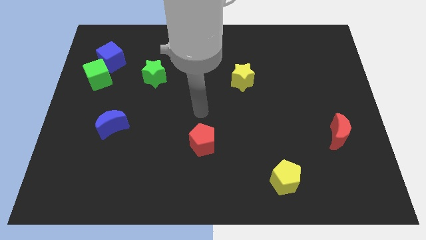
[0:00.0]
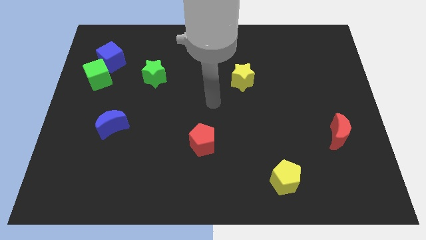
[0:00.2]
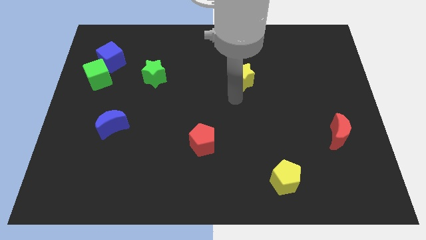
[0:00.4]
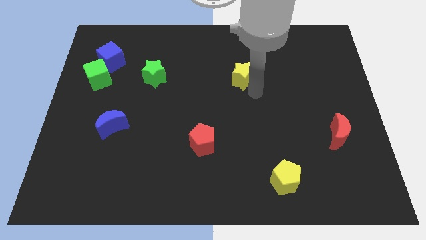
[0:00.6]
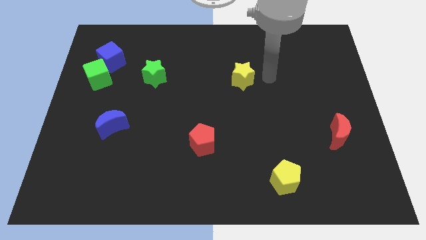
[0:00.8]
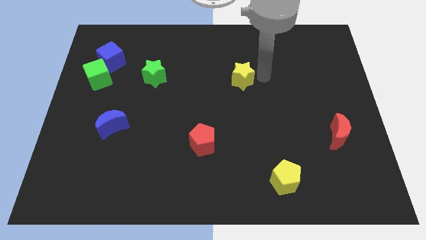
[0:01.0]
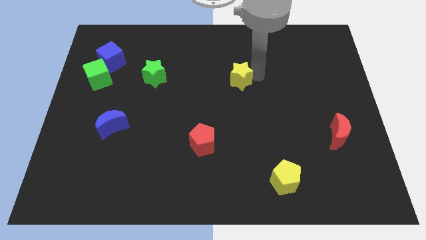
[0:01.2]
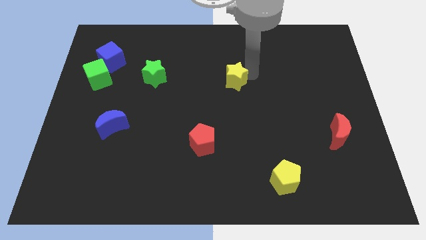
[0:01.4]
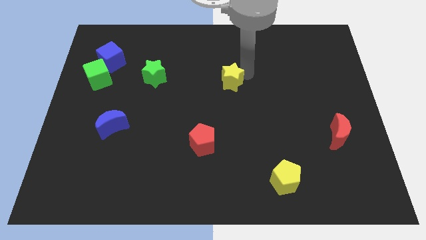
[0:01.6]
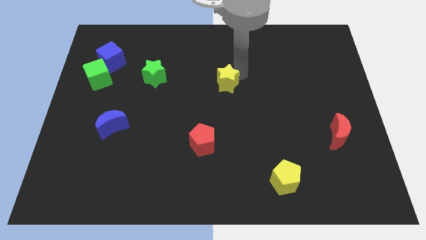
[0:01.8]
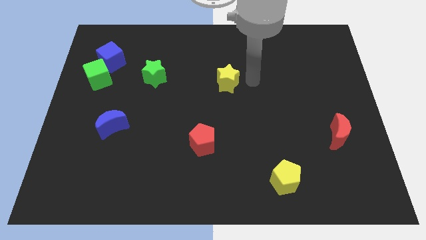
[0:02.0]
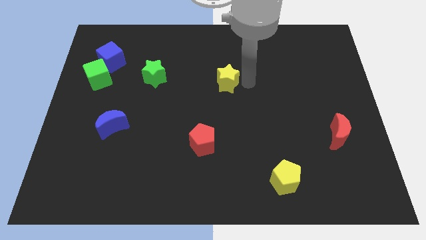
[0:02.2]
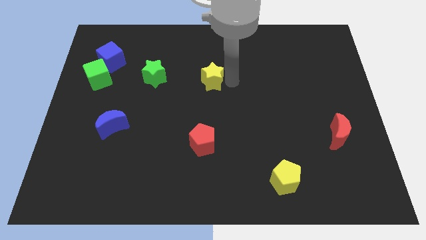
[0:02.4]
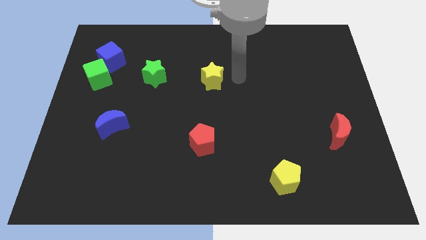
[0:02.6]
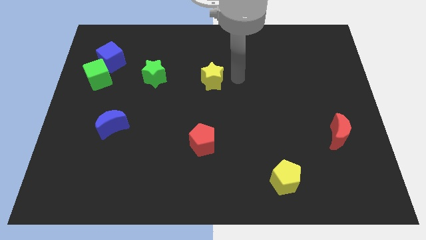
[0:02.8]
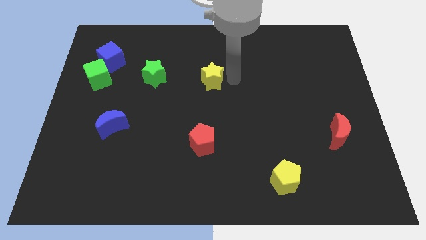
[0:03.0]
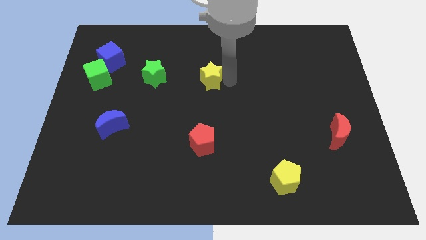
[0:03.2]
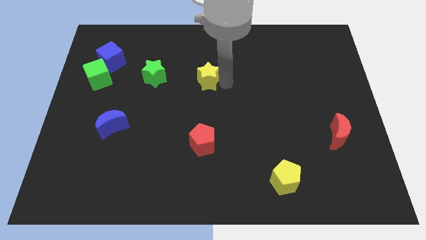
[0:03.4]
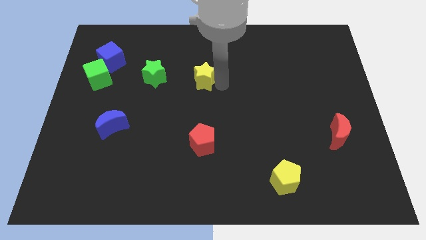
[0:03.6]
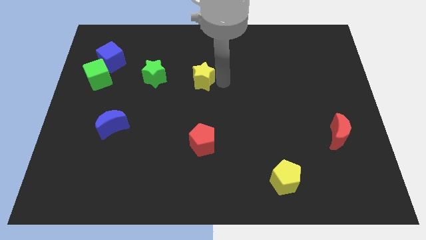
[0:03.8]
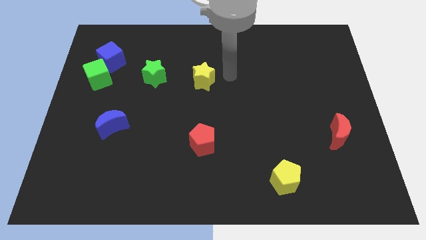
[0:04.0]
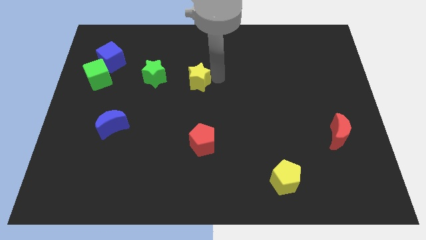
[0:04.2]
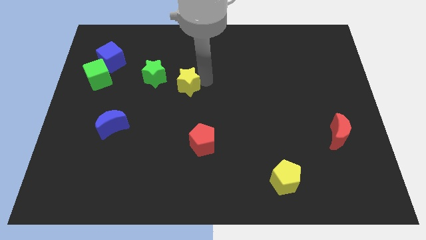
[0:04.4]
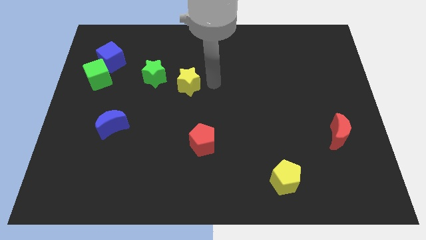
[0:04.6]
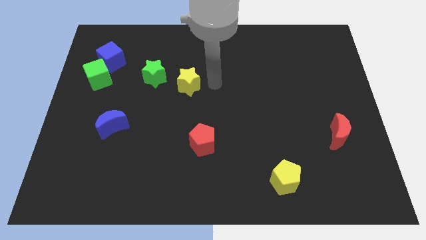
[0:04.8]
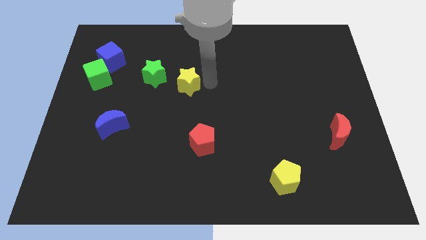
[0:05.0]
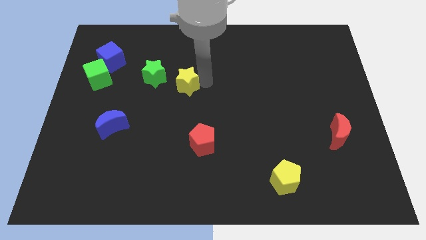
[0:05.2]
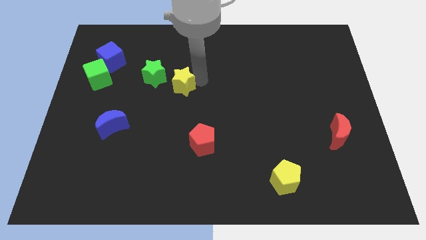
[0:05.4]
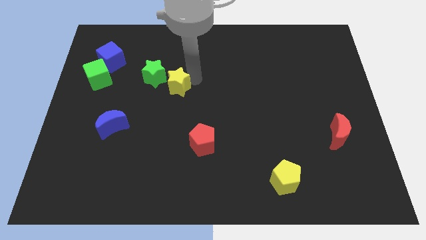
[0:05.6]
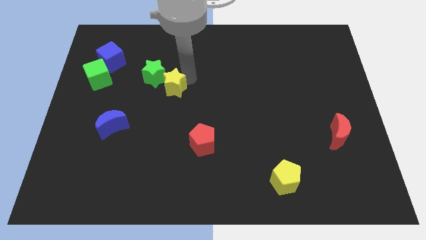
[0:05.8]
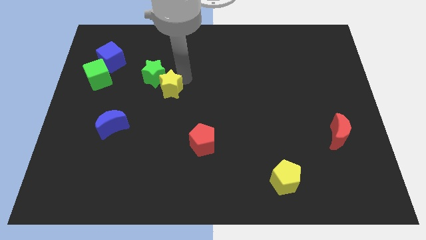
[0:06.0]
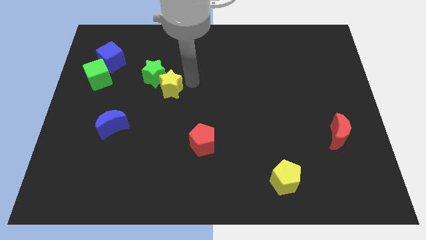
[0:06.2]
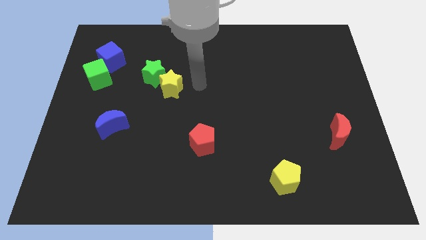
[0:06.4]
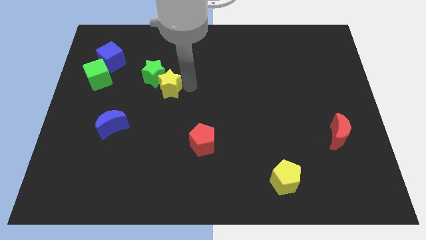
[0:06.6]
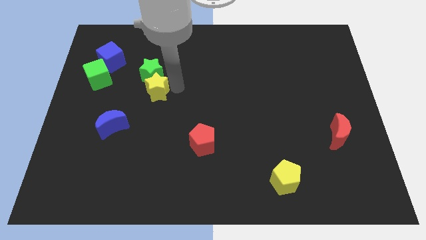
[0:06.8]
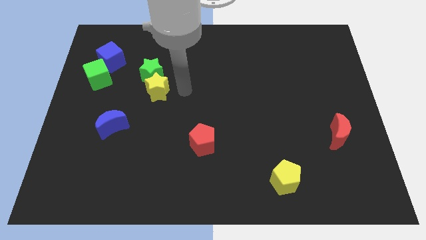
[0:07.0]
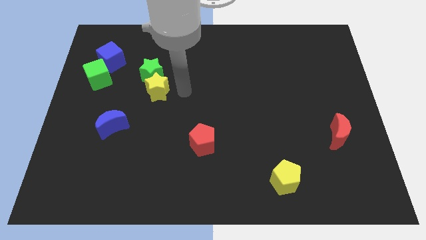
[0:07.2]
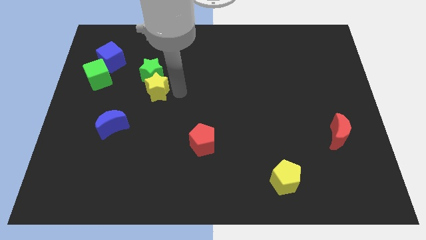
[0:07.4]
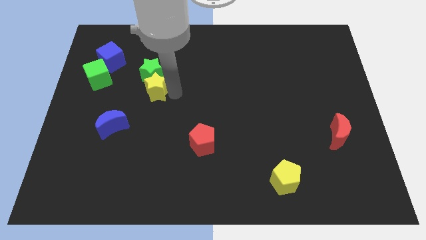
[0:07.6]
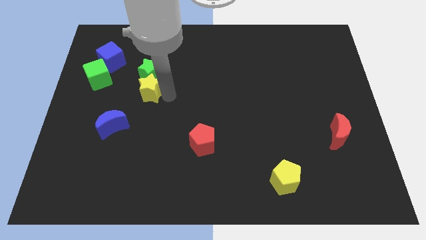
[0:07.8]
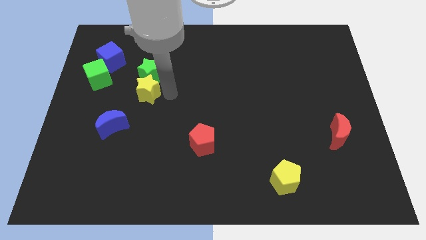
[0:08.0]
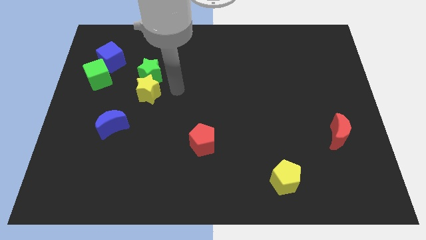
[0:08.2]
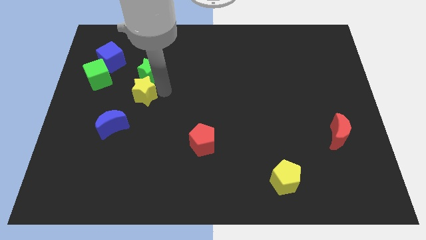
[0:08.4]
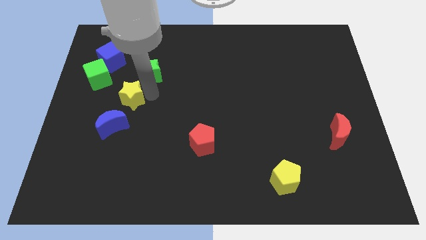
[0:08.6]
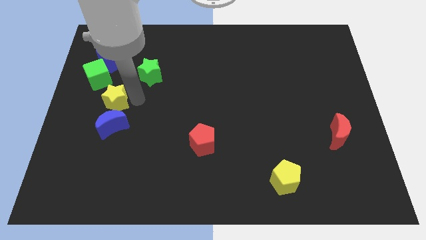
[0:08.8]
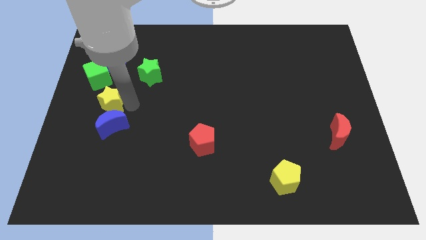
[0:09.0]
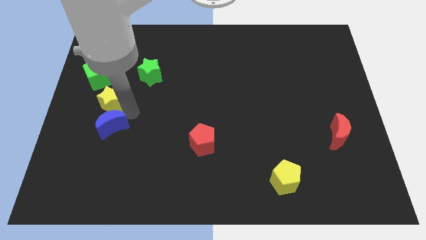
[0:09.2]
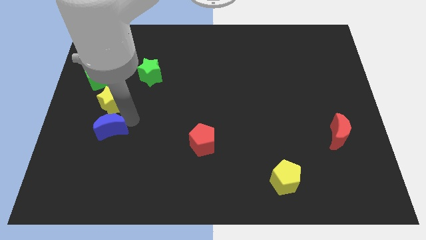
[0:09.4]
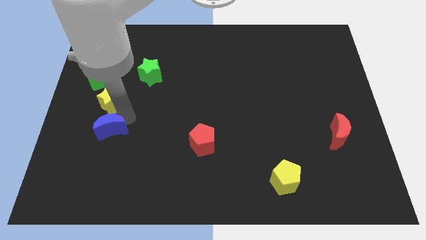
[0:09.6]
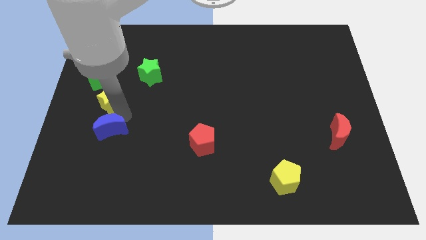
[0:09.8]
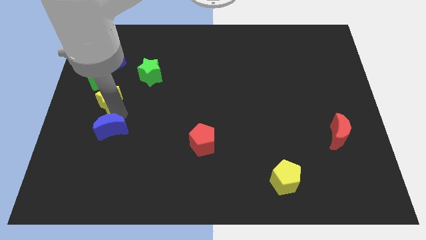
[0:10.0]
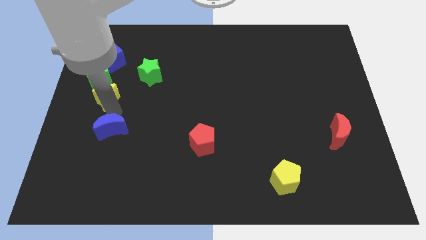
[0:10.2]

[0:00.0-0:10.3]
push the yellow star to the center left

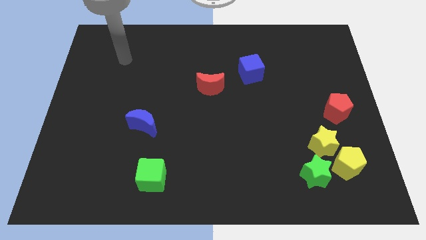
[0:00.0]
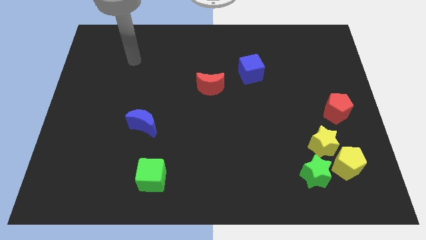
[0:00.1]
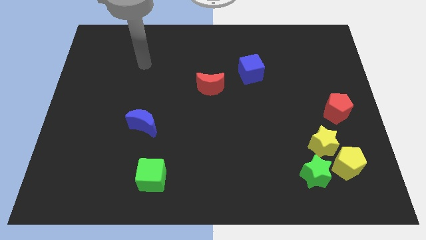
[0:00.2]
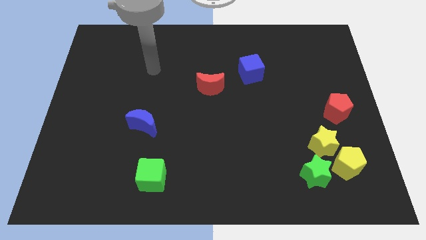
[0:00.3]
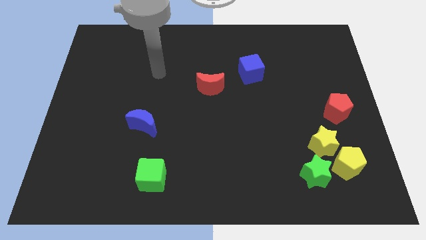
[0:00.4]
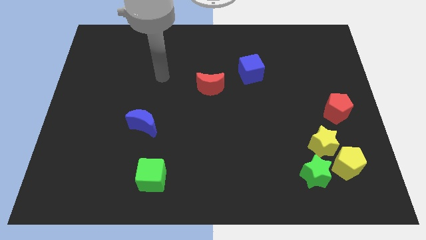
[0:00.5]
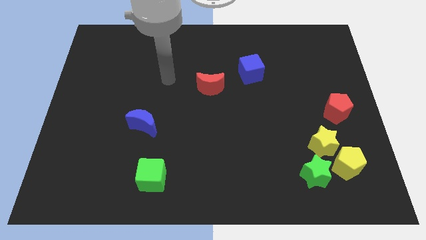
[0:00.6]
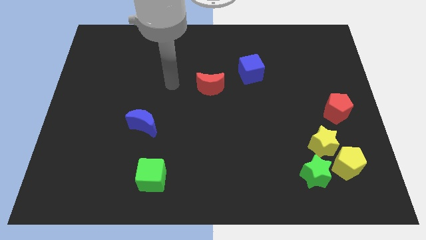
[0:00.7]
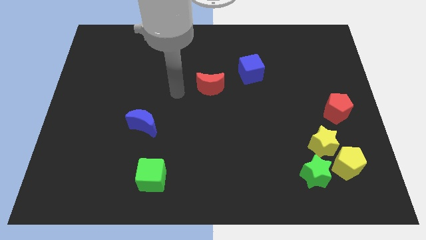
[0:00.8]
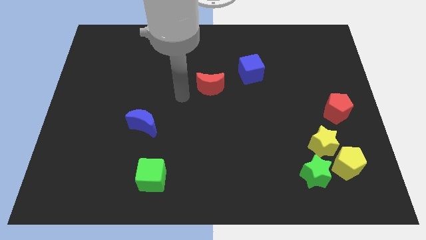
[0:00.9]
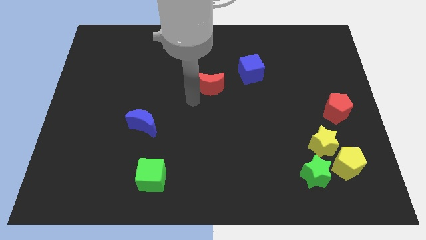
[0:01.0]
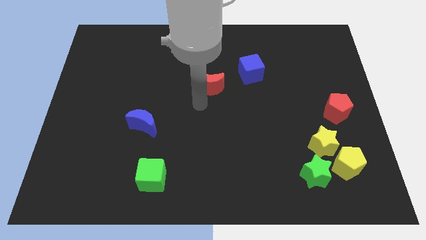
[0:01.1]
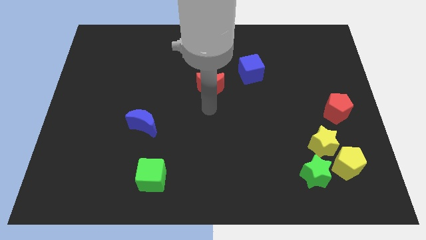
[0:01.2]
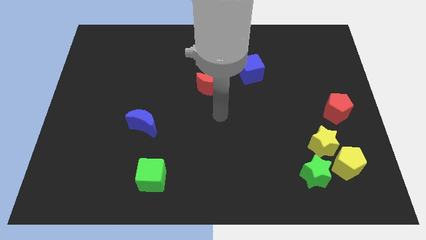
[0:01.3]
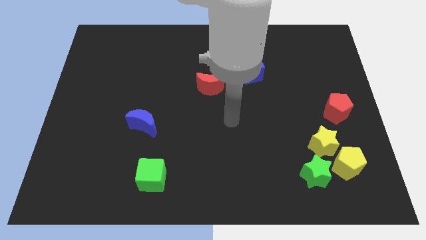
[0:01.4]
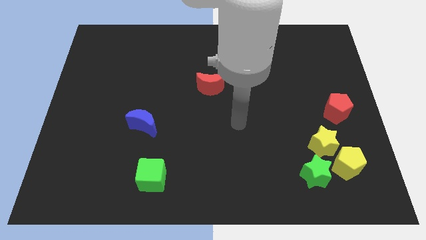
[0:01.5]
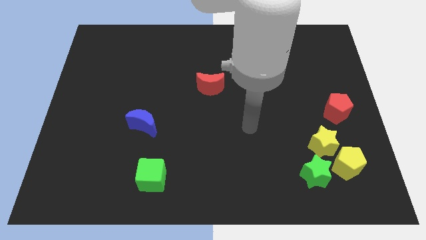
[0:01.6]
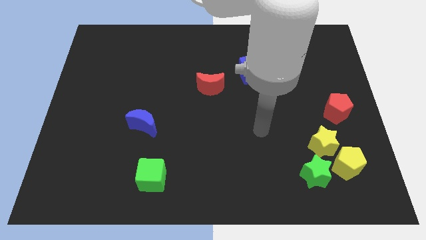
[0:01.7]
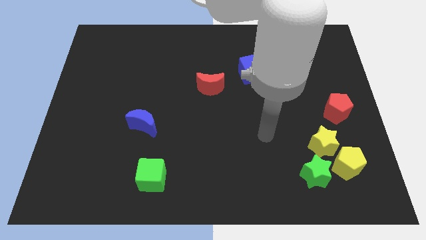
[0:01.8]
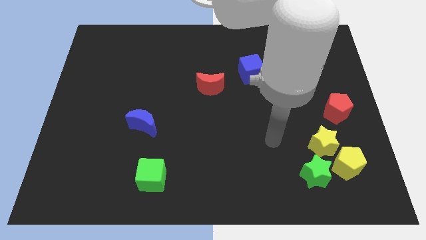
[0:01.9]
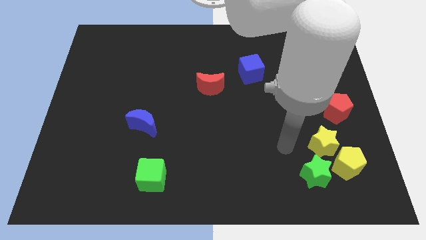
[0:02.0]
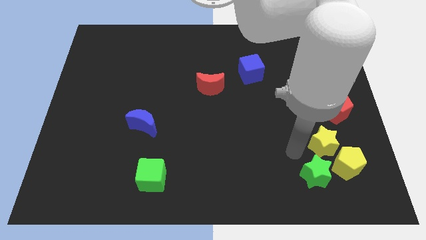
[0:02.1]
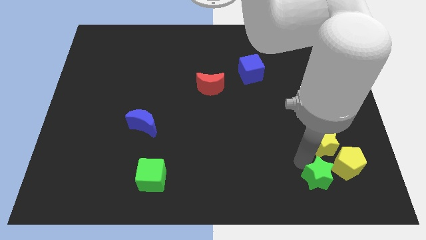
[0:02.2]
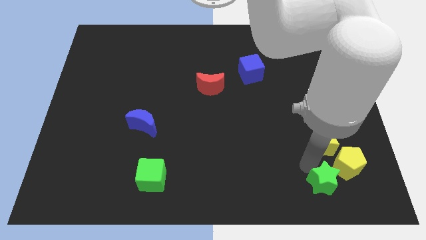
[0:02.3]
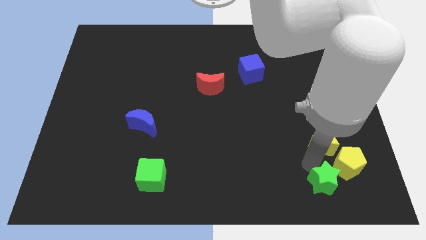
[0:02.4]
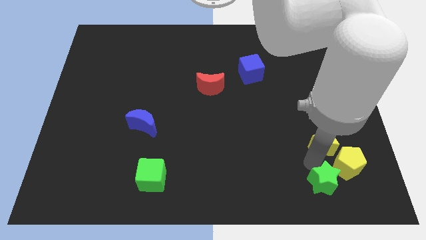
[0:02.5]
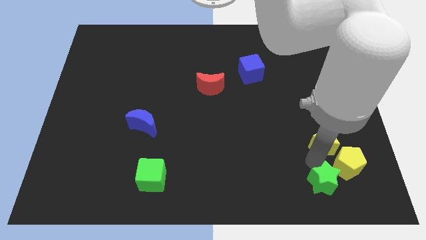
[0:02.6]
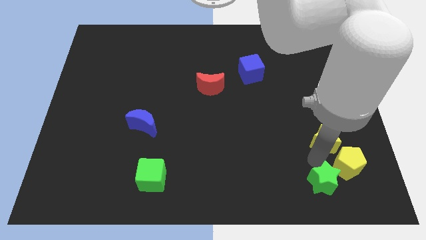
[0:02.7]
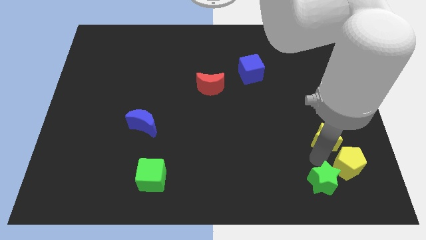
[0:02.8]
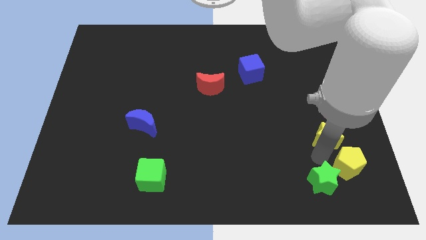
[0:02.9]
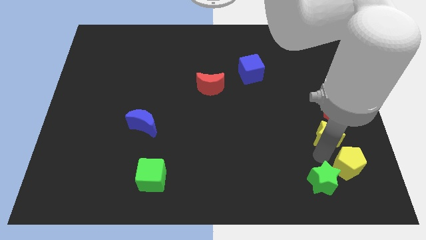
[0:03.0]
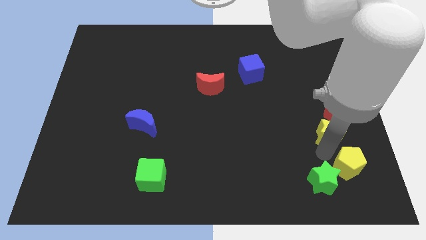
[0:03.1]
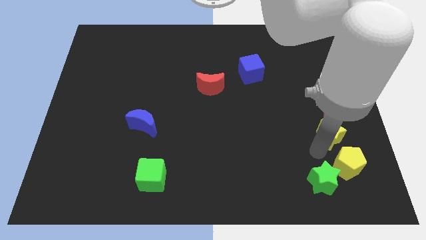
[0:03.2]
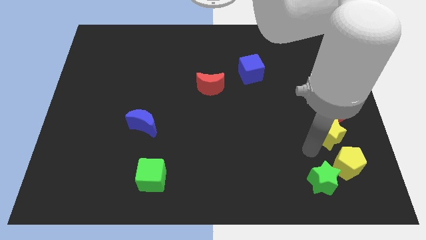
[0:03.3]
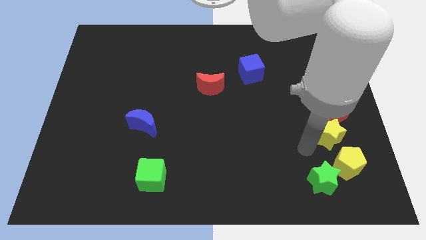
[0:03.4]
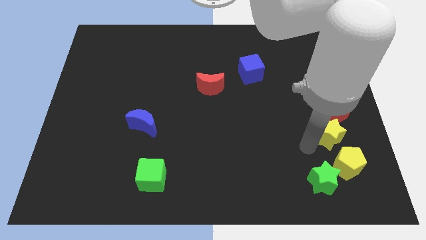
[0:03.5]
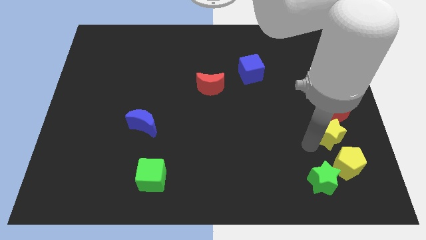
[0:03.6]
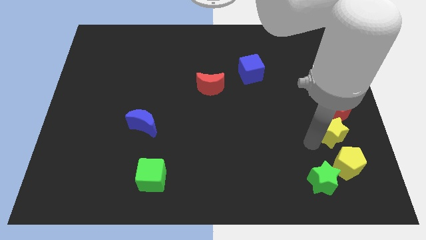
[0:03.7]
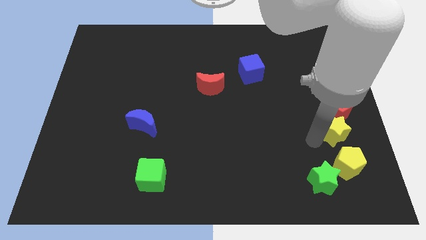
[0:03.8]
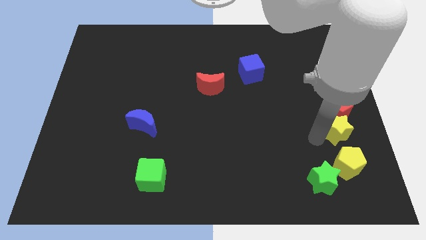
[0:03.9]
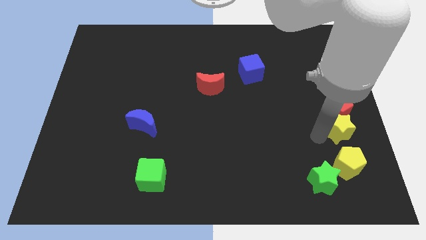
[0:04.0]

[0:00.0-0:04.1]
slide the yellow star to the center right
